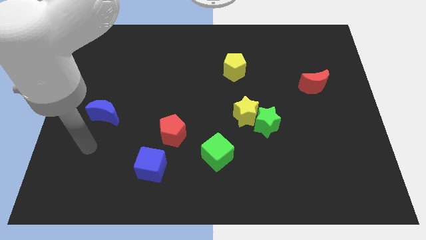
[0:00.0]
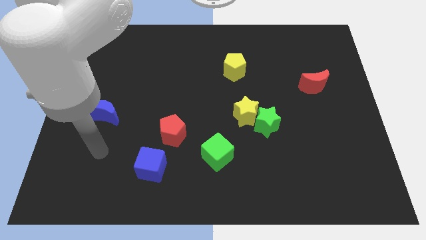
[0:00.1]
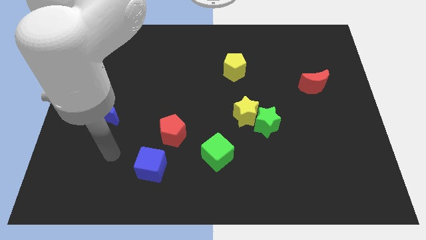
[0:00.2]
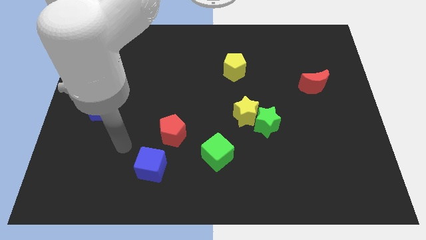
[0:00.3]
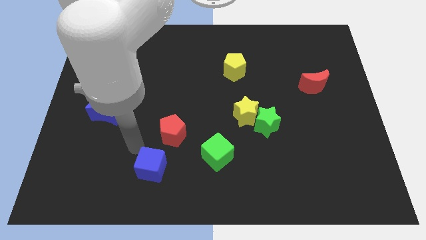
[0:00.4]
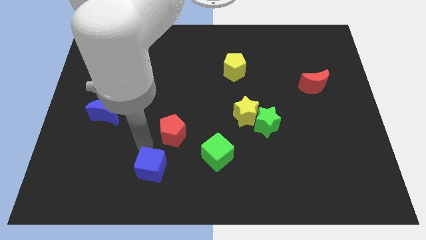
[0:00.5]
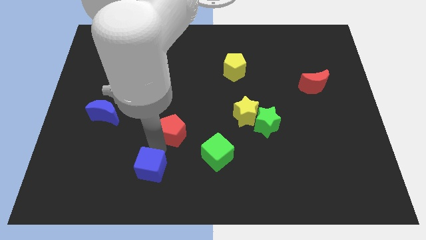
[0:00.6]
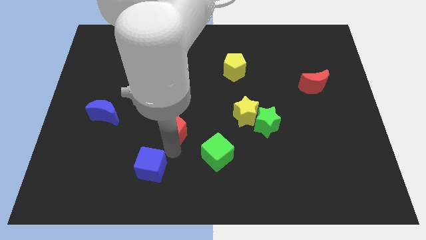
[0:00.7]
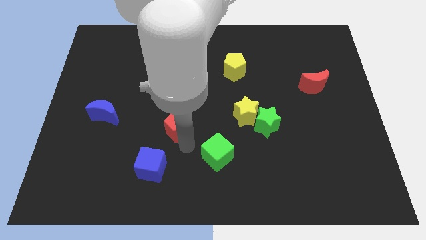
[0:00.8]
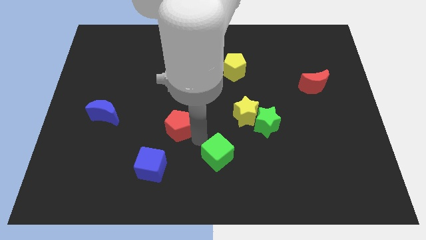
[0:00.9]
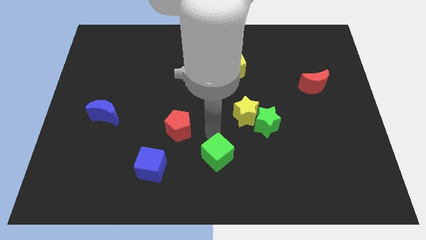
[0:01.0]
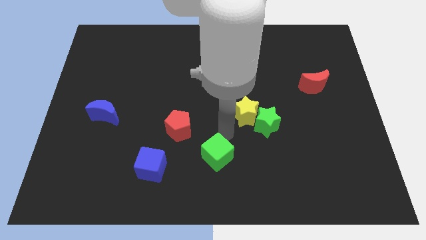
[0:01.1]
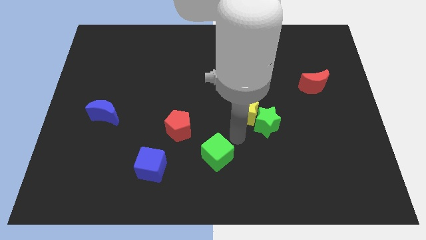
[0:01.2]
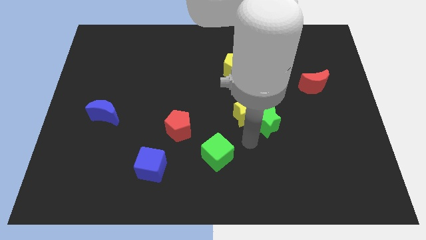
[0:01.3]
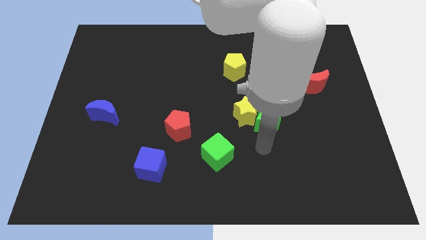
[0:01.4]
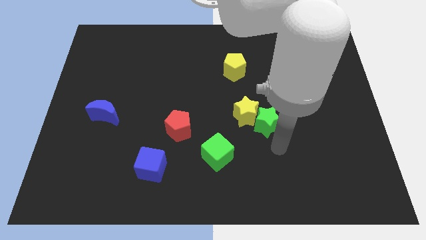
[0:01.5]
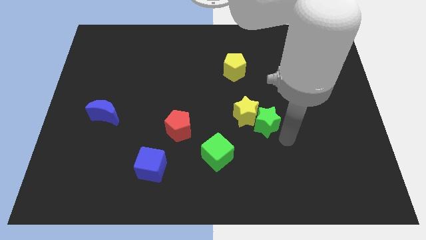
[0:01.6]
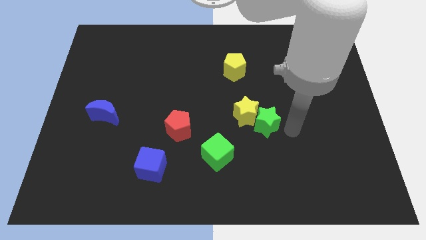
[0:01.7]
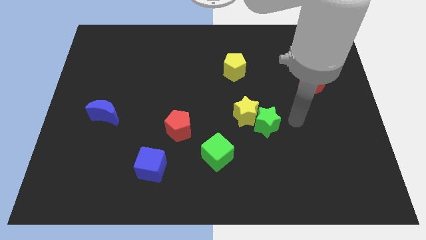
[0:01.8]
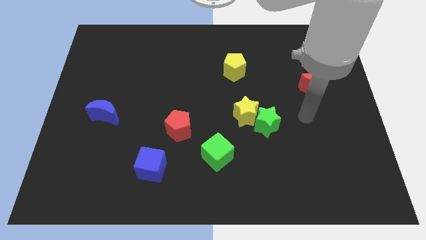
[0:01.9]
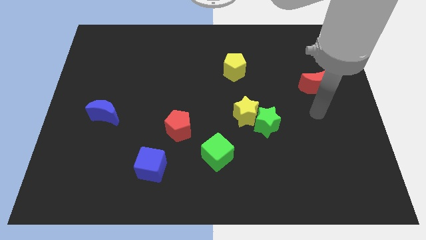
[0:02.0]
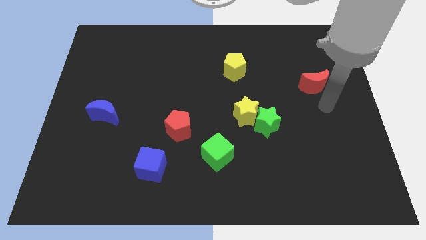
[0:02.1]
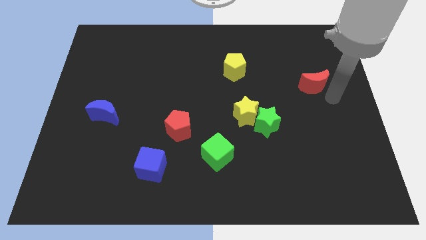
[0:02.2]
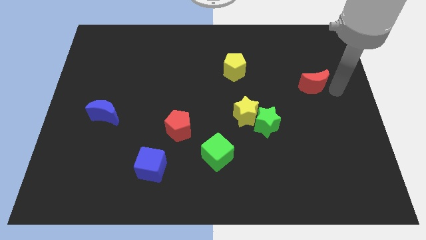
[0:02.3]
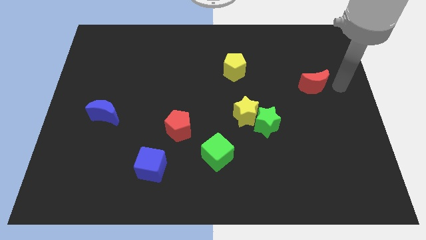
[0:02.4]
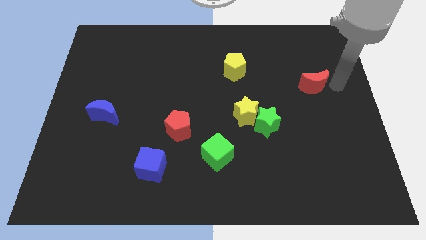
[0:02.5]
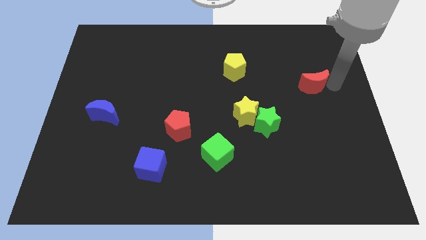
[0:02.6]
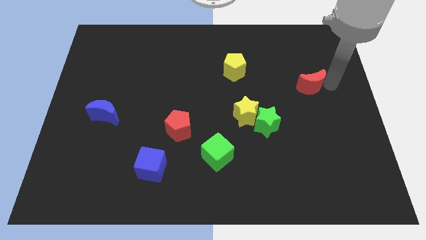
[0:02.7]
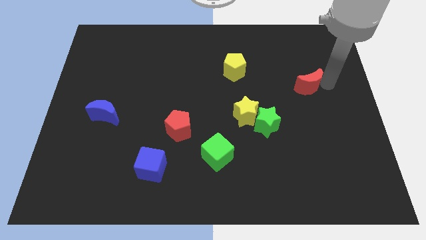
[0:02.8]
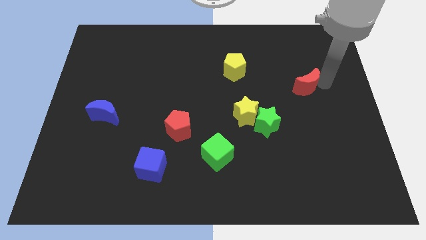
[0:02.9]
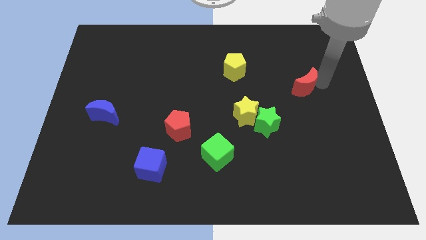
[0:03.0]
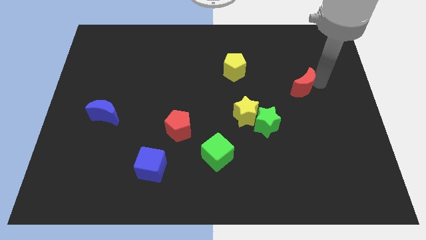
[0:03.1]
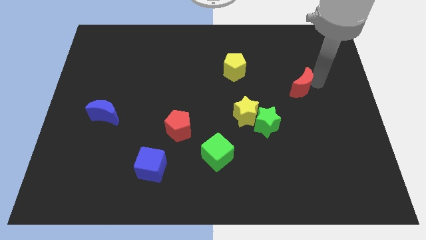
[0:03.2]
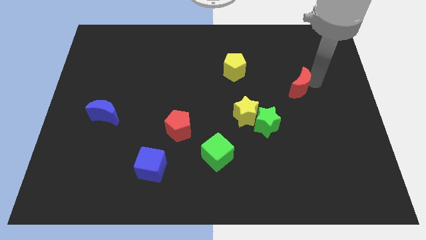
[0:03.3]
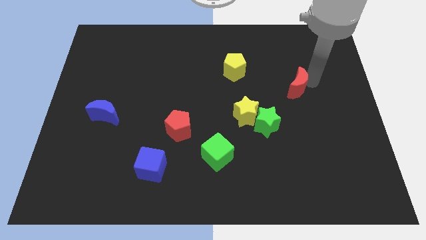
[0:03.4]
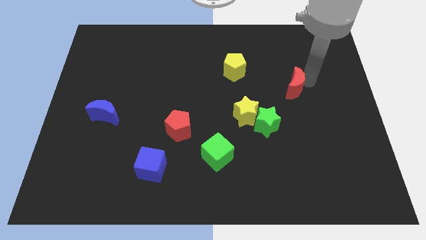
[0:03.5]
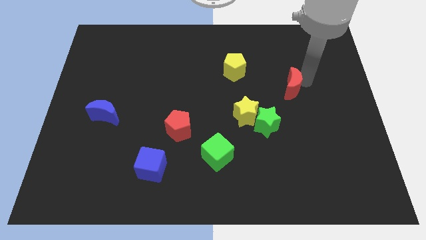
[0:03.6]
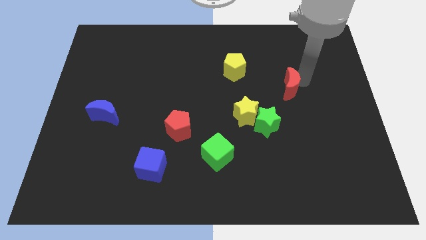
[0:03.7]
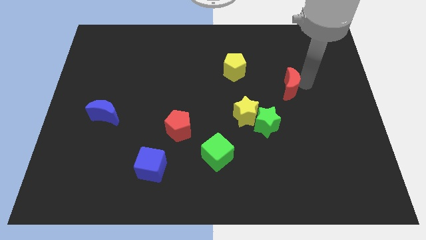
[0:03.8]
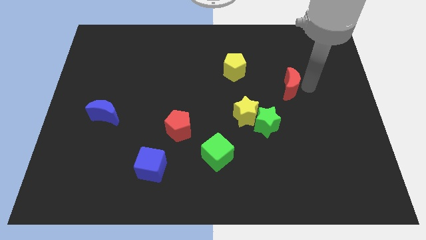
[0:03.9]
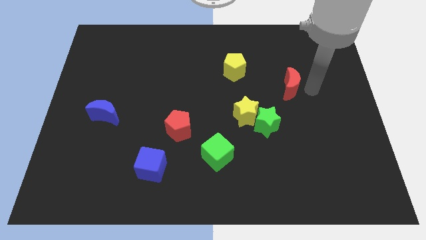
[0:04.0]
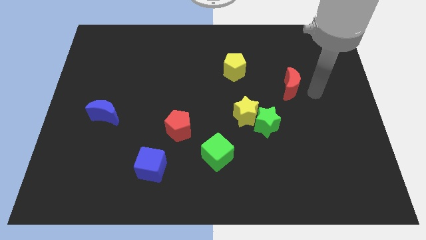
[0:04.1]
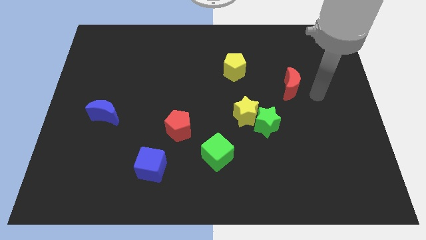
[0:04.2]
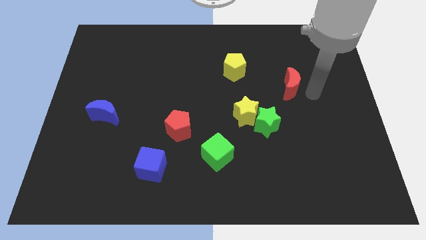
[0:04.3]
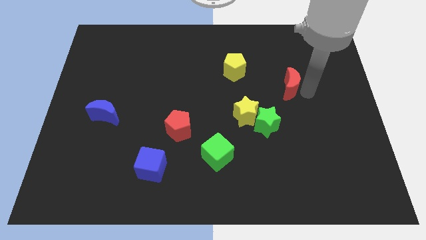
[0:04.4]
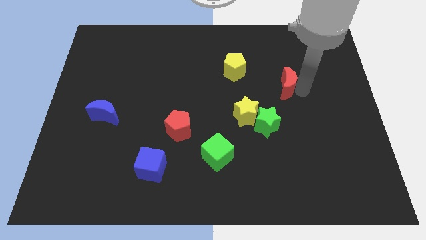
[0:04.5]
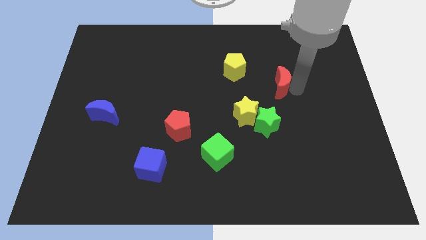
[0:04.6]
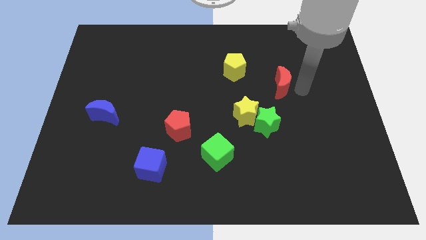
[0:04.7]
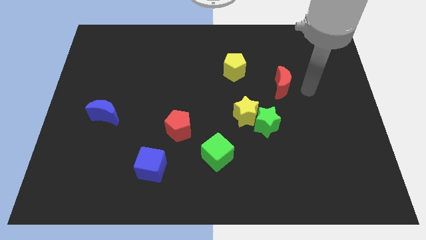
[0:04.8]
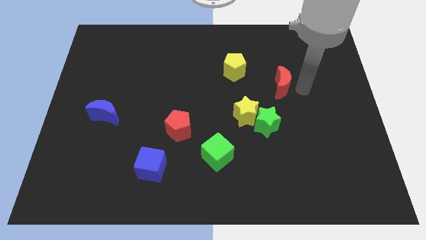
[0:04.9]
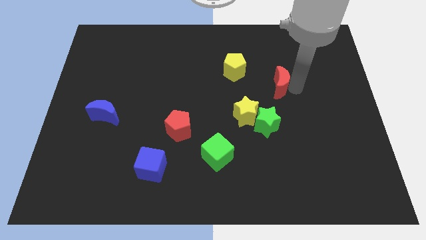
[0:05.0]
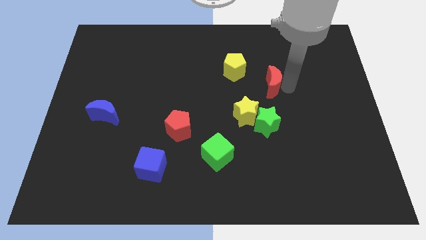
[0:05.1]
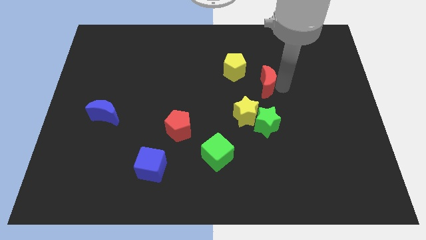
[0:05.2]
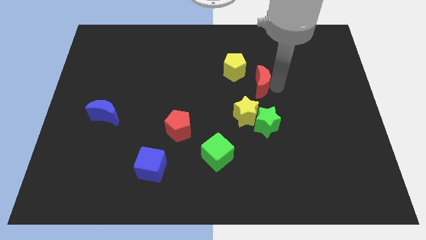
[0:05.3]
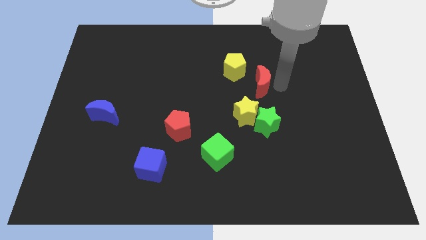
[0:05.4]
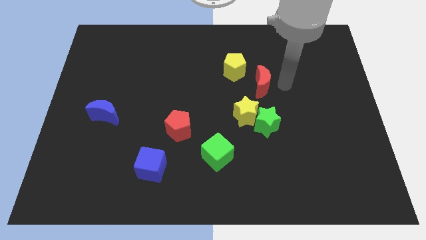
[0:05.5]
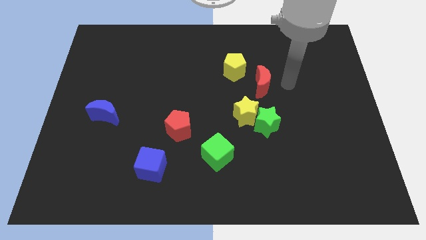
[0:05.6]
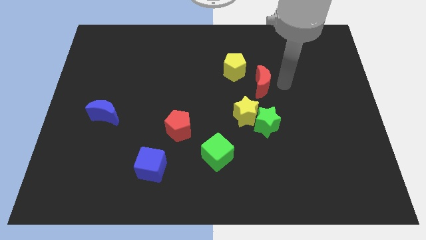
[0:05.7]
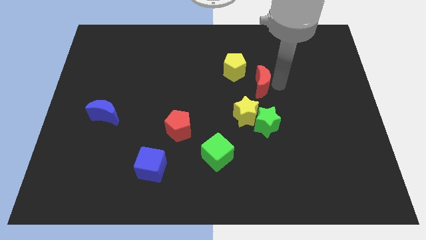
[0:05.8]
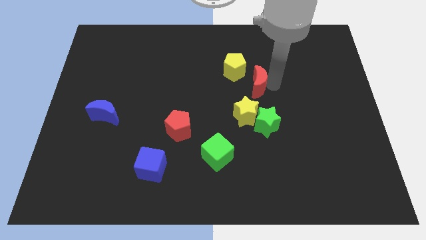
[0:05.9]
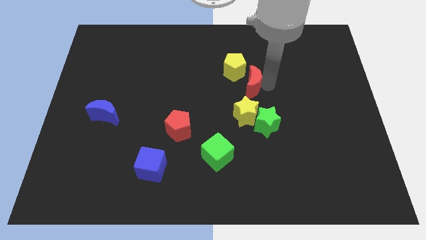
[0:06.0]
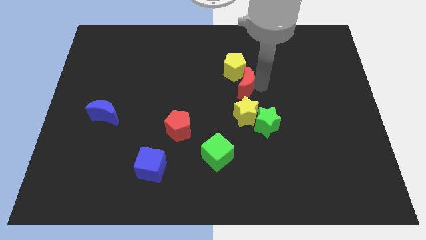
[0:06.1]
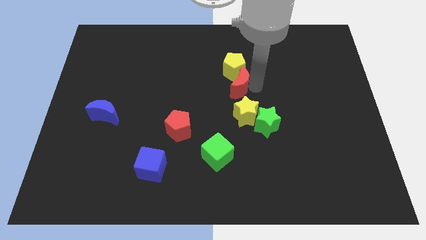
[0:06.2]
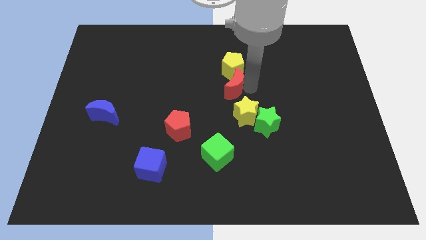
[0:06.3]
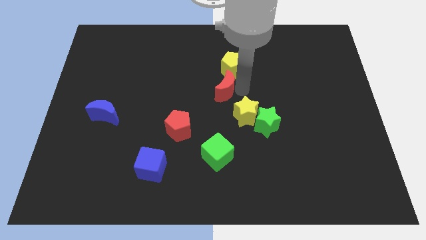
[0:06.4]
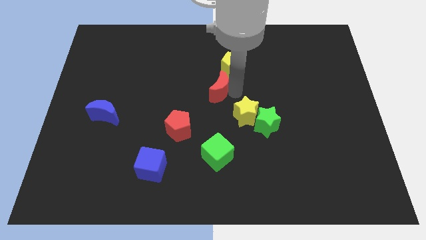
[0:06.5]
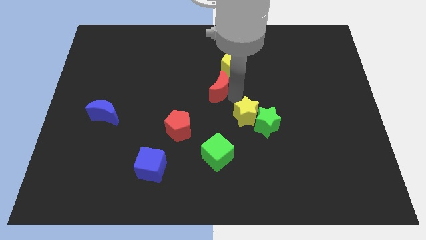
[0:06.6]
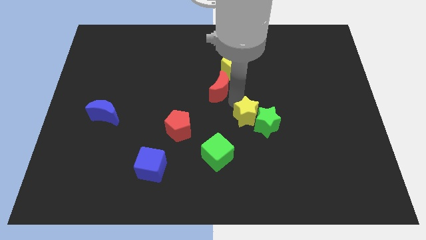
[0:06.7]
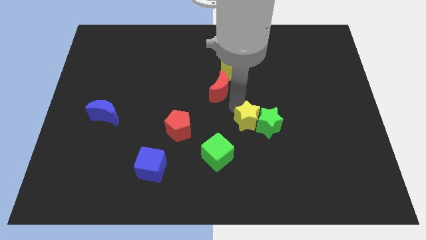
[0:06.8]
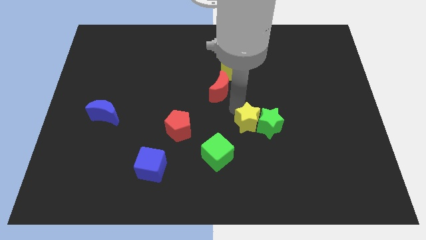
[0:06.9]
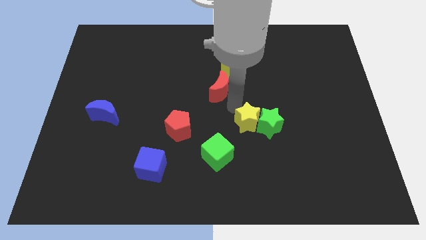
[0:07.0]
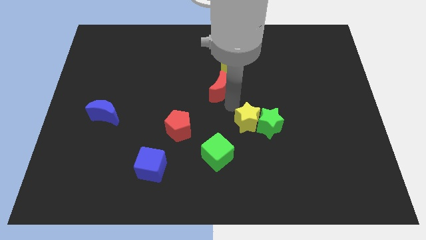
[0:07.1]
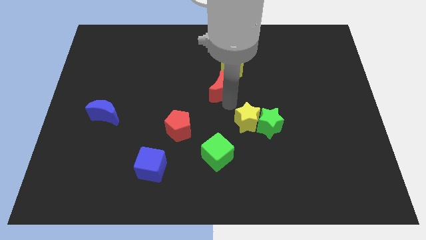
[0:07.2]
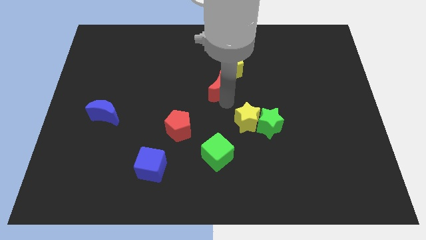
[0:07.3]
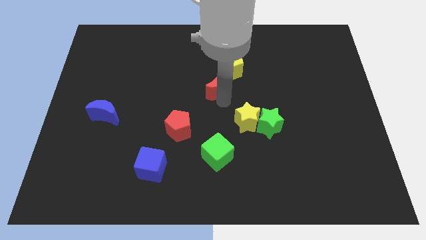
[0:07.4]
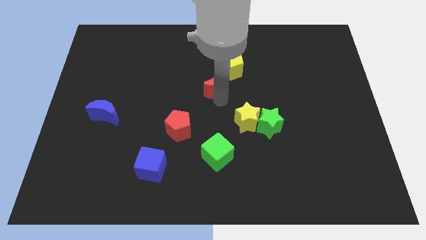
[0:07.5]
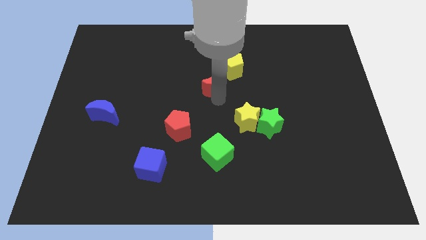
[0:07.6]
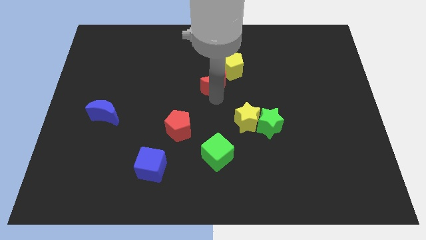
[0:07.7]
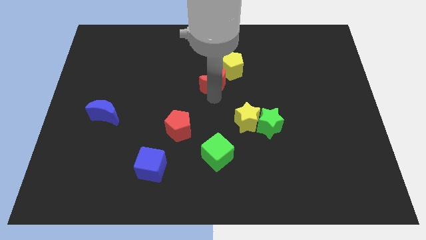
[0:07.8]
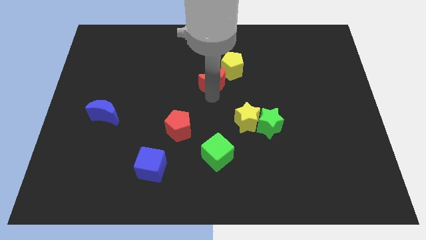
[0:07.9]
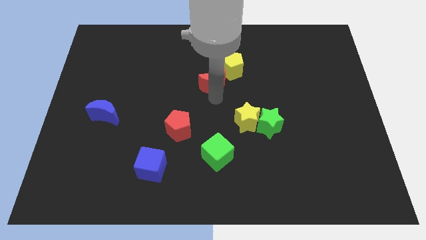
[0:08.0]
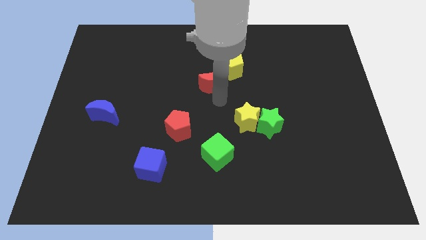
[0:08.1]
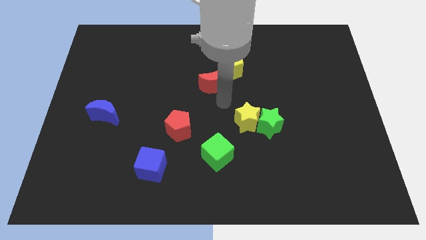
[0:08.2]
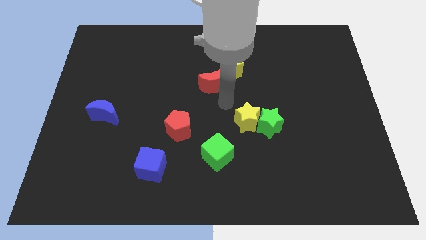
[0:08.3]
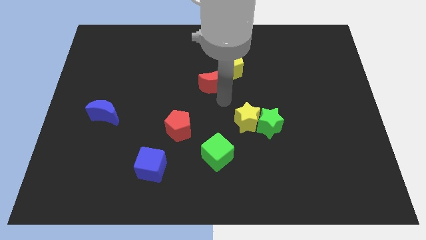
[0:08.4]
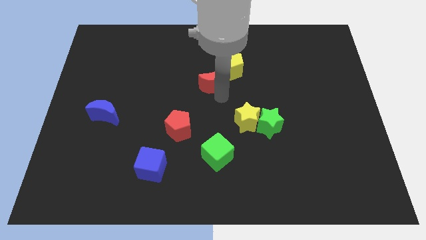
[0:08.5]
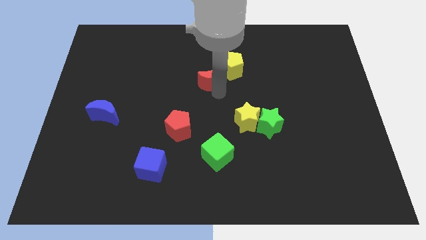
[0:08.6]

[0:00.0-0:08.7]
push the red moon left of the yellow pentagon
